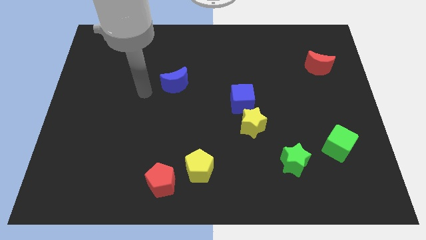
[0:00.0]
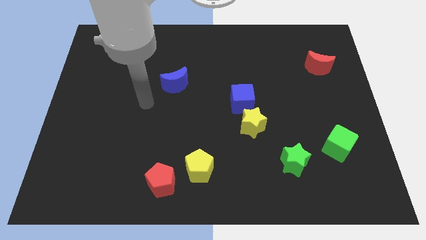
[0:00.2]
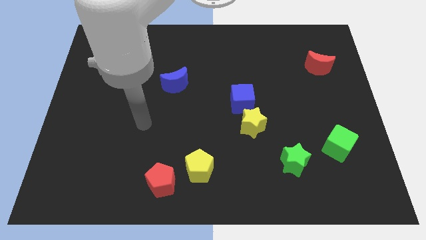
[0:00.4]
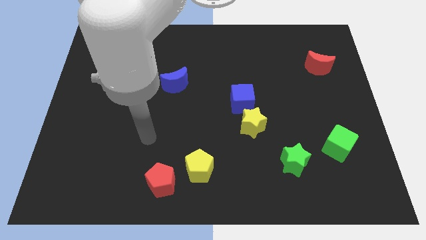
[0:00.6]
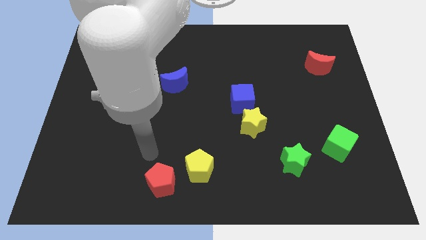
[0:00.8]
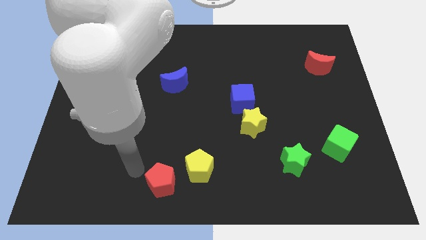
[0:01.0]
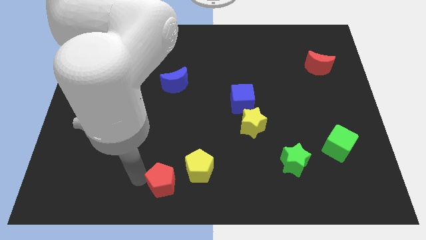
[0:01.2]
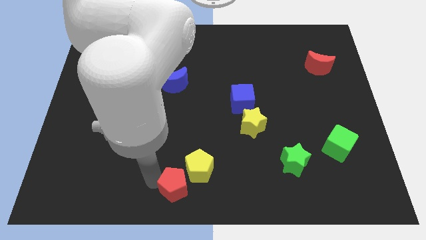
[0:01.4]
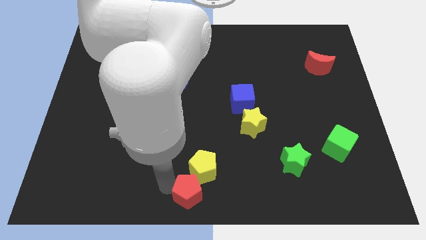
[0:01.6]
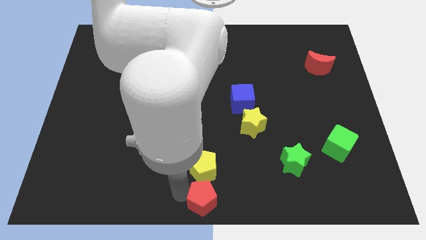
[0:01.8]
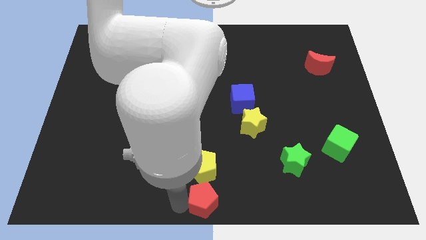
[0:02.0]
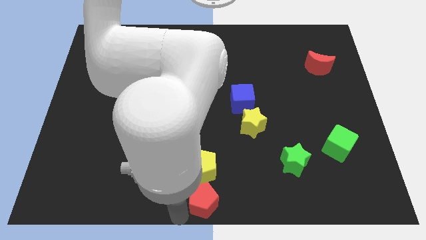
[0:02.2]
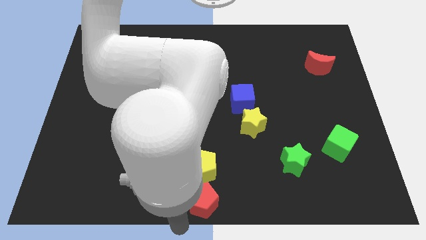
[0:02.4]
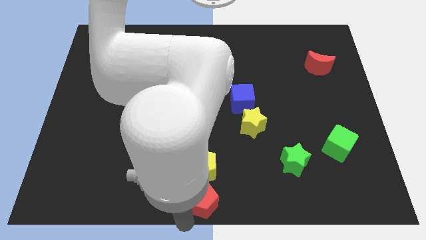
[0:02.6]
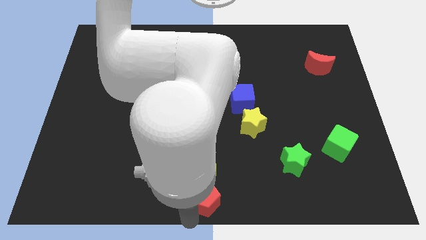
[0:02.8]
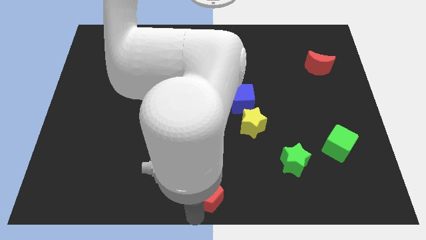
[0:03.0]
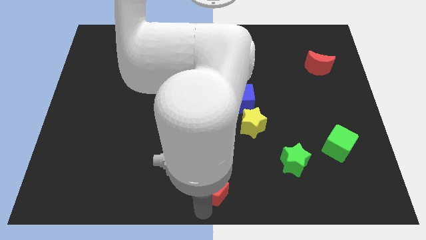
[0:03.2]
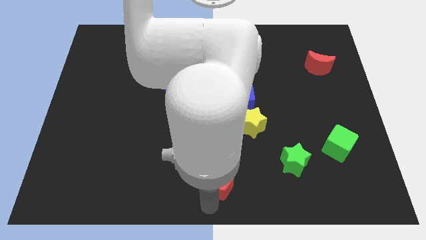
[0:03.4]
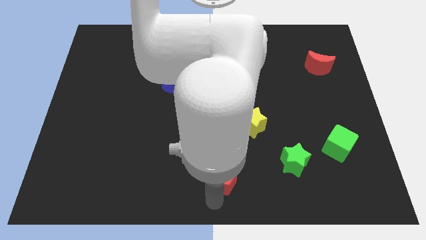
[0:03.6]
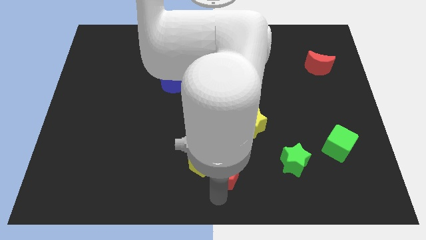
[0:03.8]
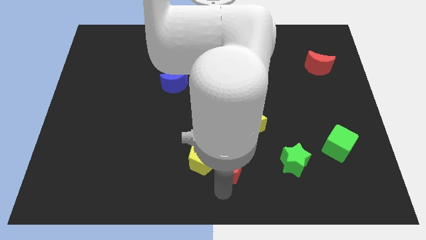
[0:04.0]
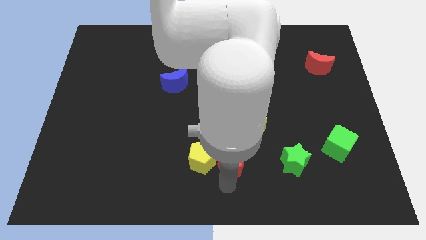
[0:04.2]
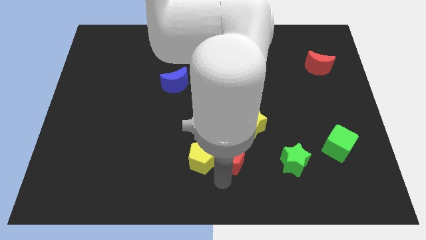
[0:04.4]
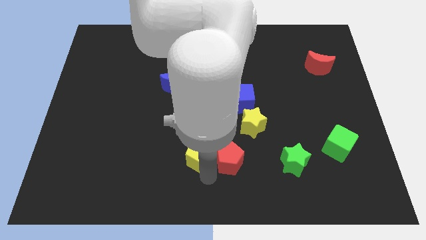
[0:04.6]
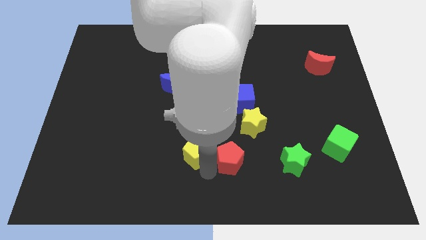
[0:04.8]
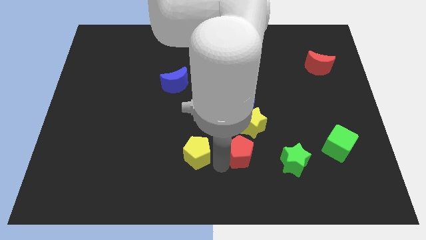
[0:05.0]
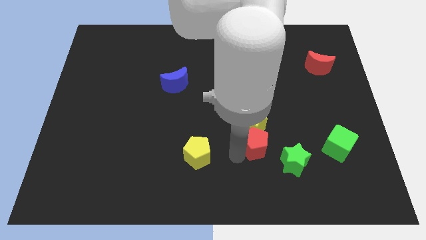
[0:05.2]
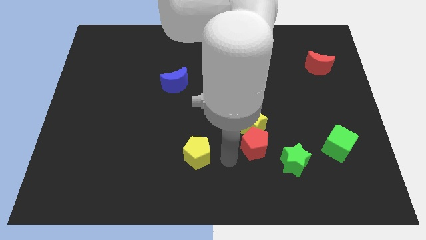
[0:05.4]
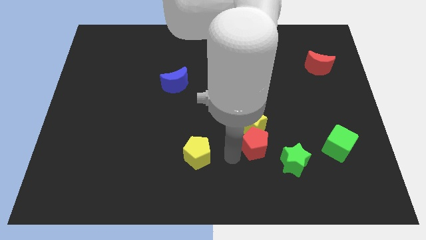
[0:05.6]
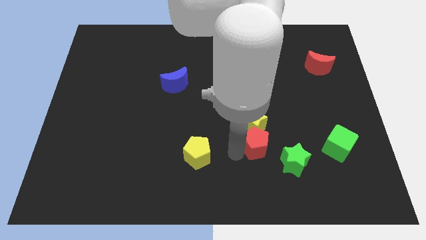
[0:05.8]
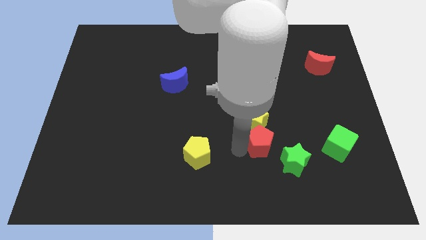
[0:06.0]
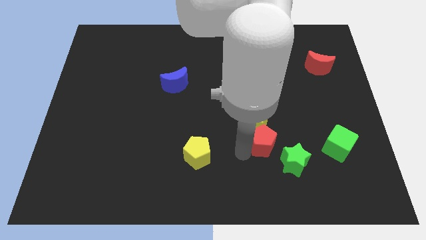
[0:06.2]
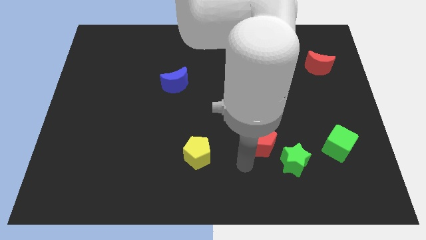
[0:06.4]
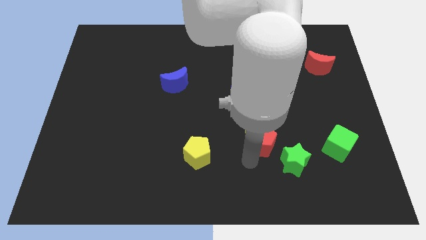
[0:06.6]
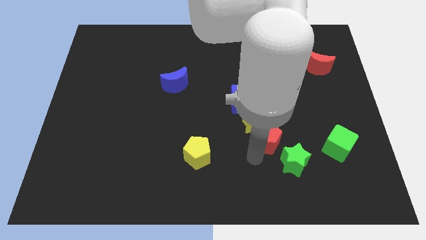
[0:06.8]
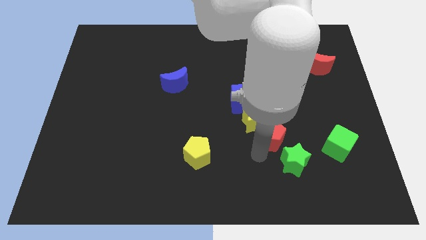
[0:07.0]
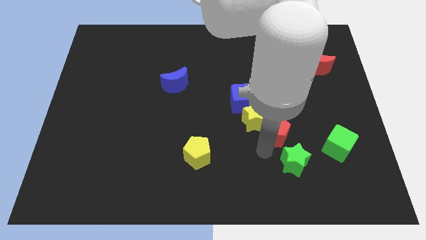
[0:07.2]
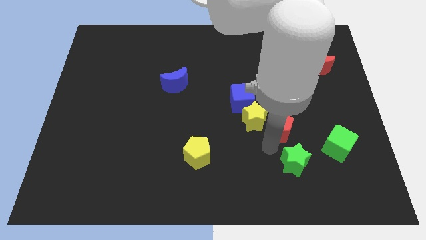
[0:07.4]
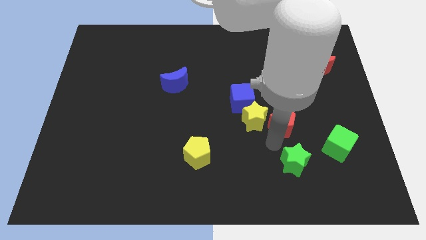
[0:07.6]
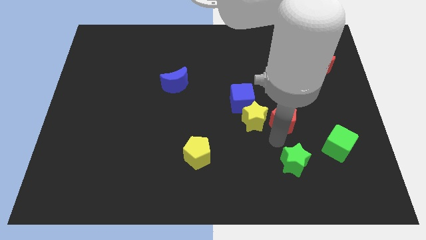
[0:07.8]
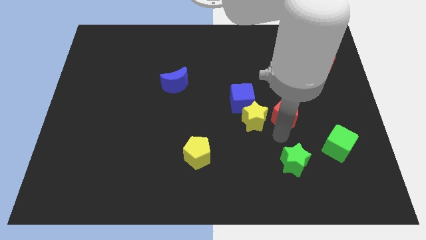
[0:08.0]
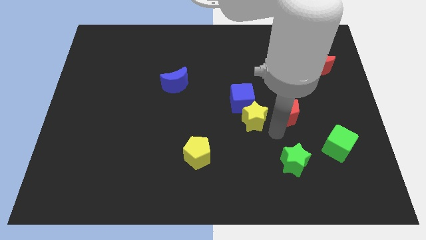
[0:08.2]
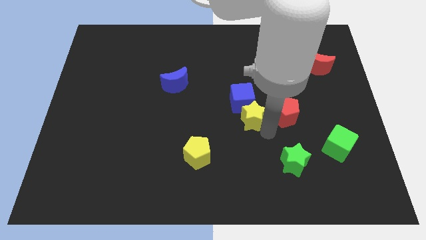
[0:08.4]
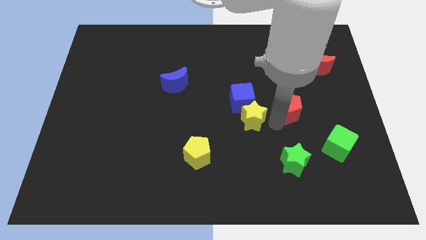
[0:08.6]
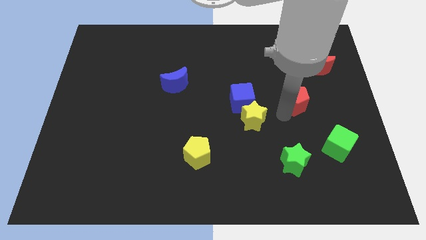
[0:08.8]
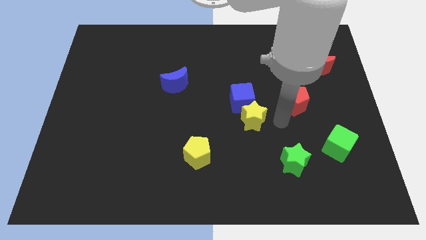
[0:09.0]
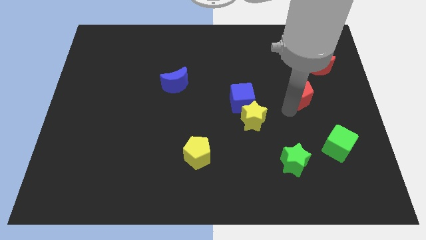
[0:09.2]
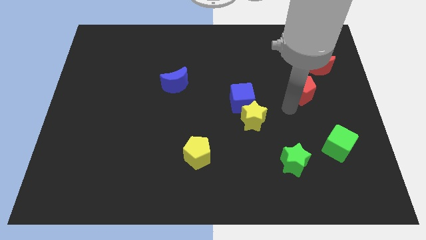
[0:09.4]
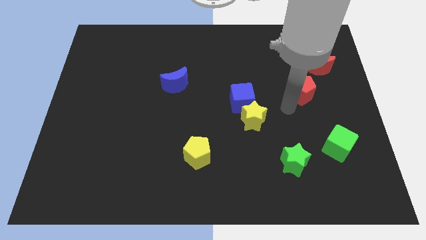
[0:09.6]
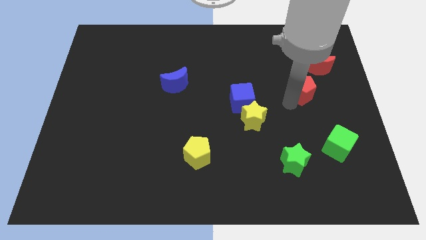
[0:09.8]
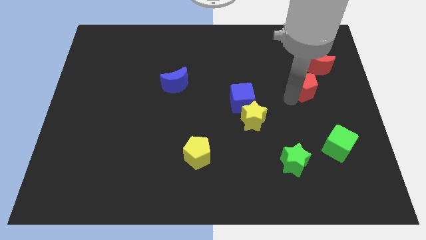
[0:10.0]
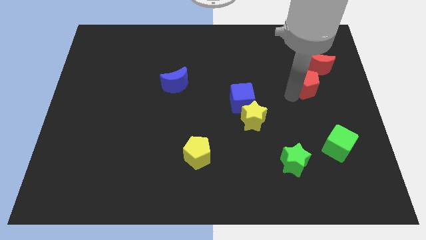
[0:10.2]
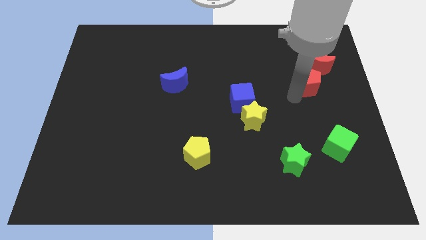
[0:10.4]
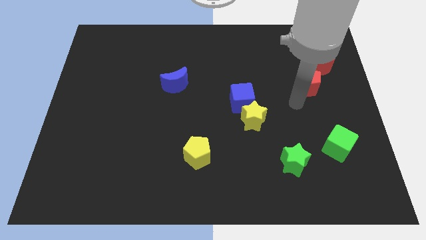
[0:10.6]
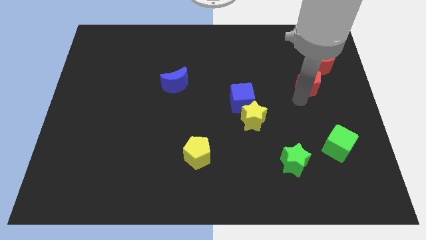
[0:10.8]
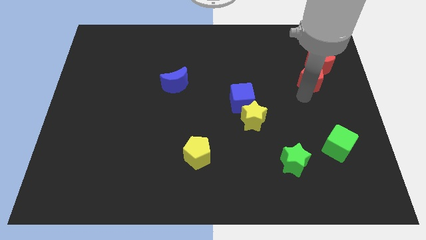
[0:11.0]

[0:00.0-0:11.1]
put the red pentagon to the red moon

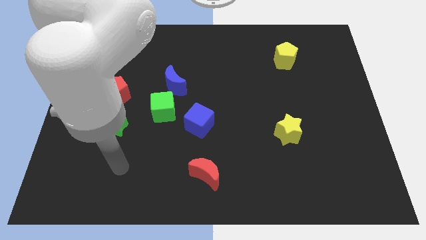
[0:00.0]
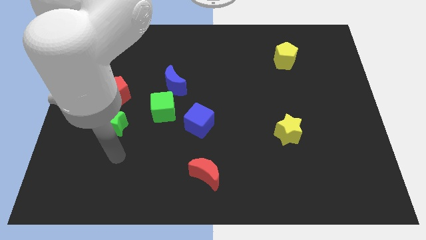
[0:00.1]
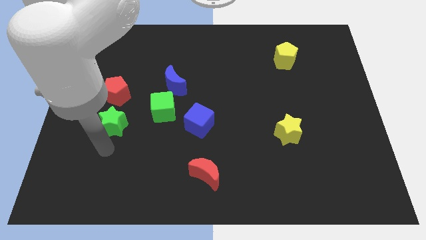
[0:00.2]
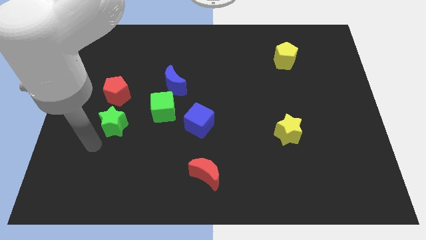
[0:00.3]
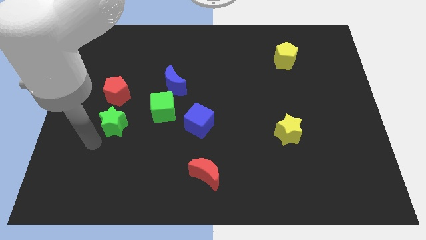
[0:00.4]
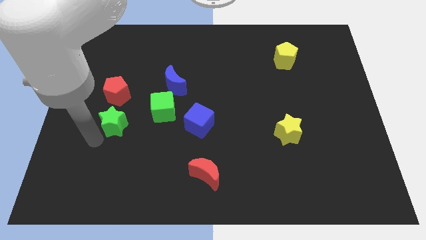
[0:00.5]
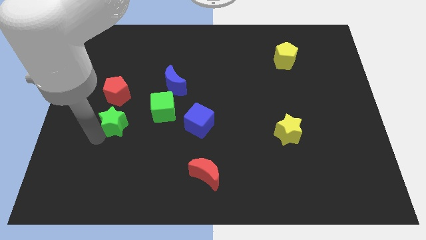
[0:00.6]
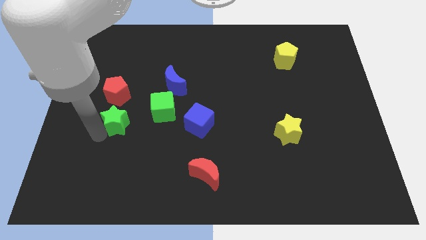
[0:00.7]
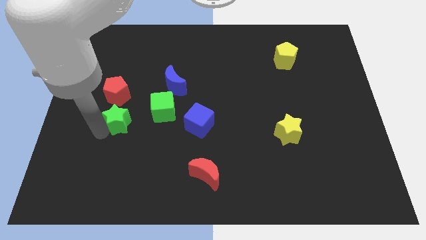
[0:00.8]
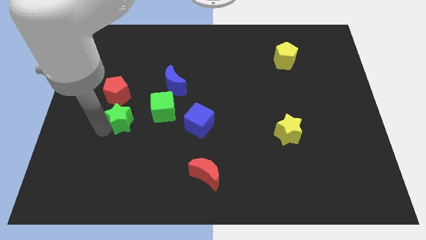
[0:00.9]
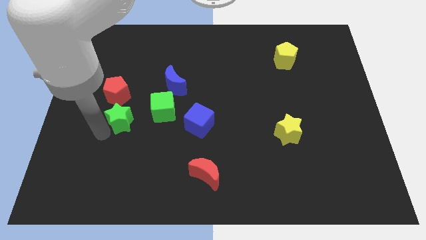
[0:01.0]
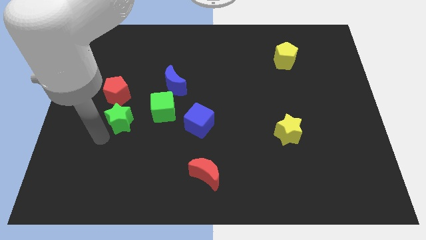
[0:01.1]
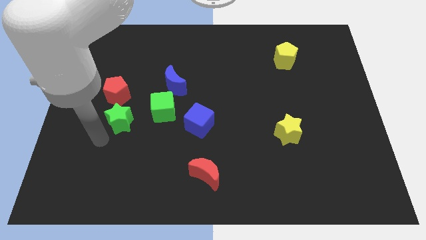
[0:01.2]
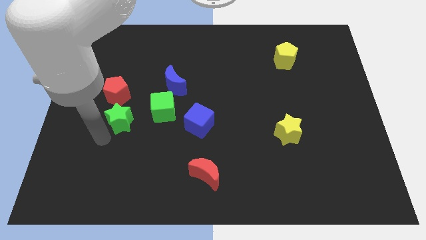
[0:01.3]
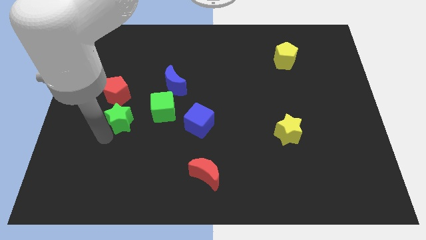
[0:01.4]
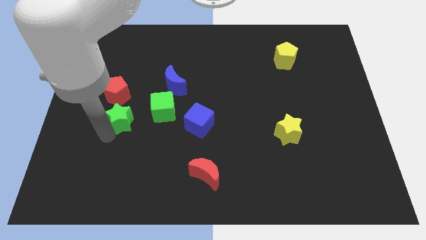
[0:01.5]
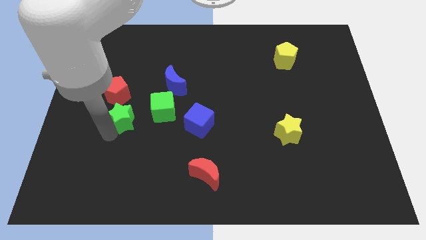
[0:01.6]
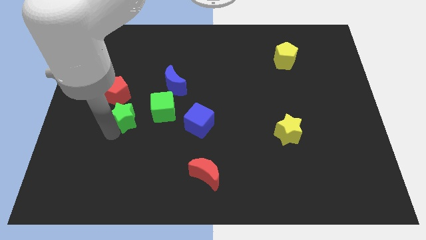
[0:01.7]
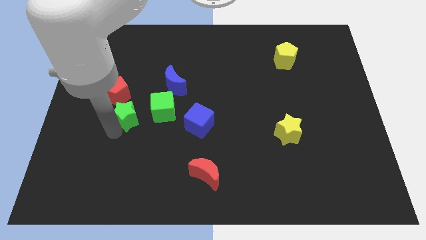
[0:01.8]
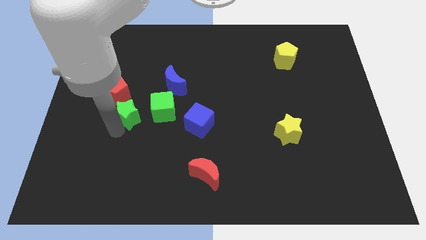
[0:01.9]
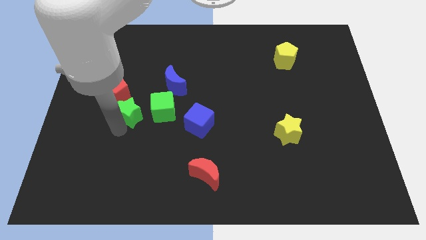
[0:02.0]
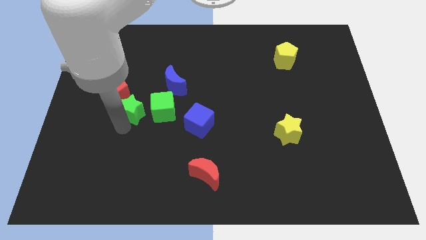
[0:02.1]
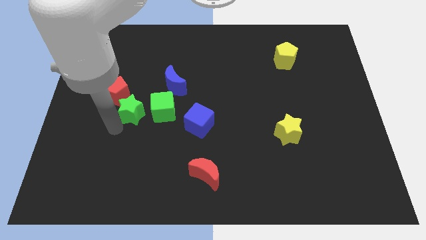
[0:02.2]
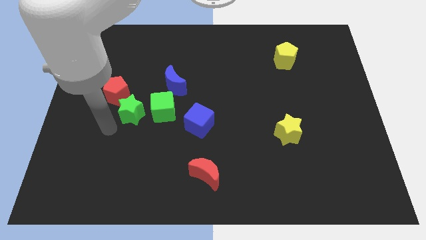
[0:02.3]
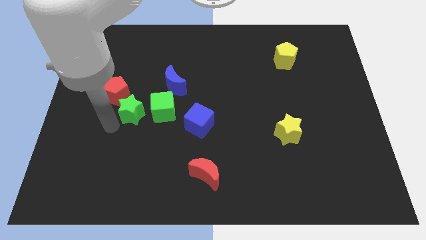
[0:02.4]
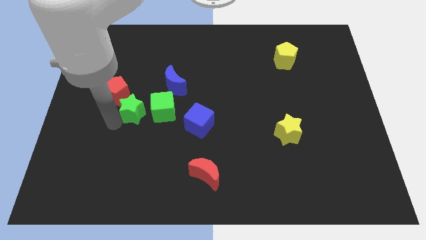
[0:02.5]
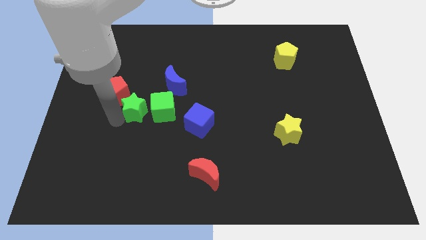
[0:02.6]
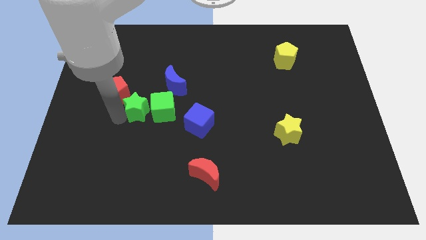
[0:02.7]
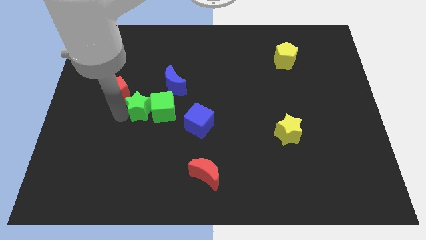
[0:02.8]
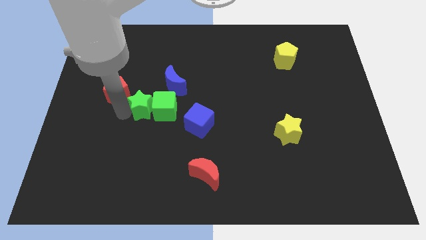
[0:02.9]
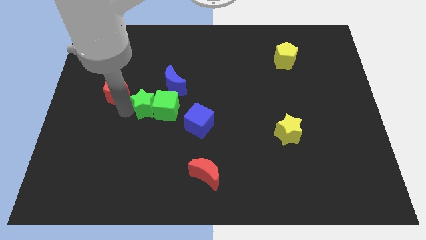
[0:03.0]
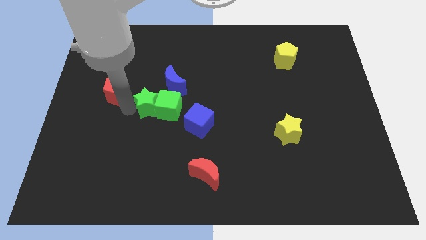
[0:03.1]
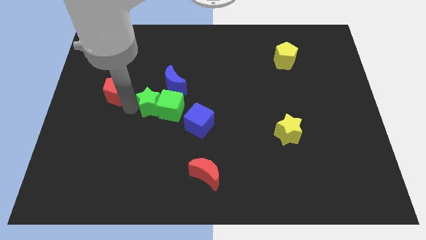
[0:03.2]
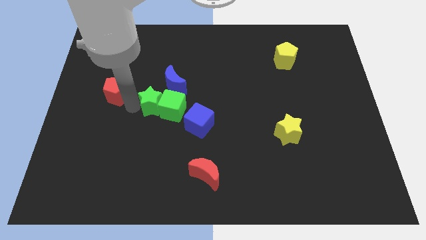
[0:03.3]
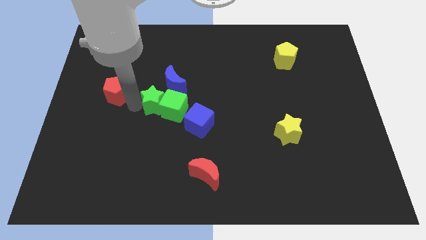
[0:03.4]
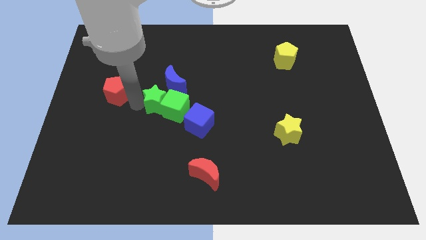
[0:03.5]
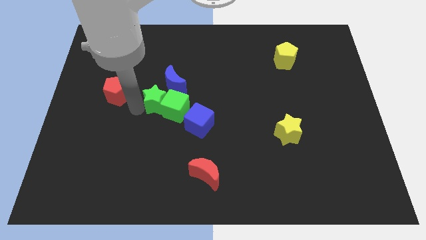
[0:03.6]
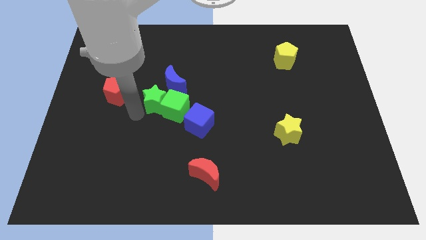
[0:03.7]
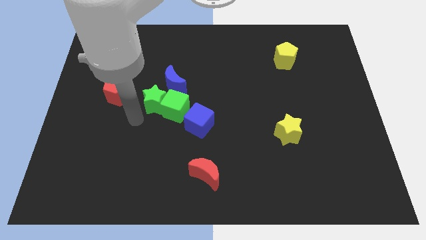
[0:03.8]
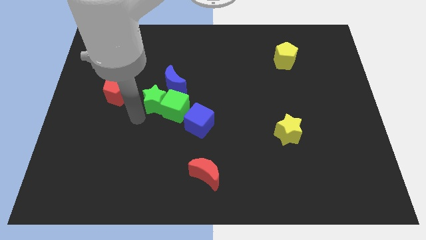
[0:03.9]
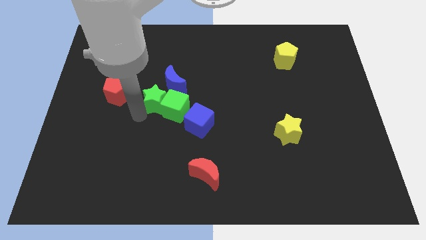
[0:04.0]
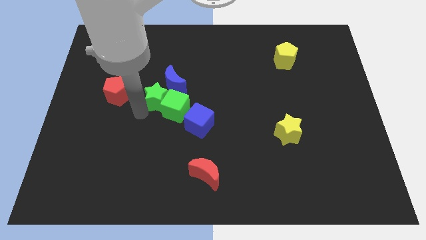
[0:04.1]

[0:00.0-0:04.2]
slide the green star towards the blue moon
